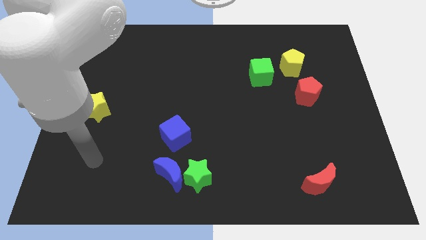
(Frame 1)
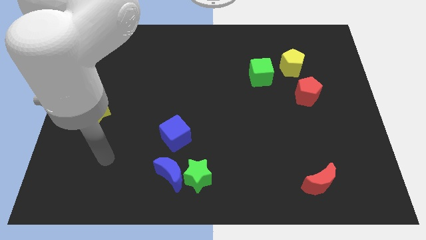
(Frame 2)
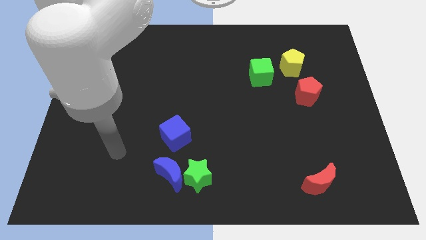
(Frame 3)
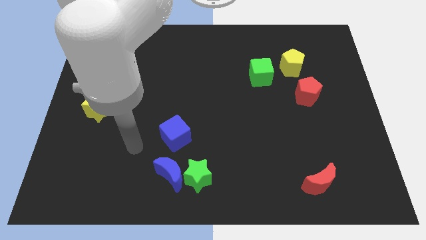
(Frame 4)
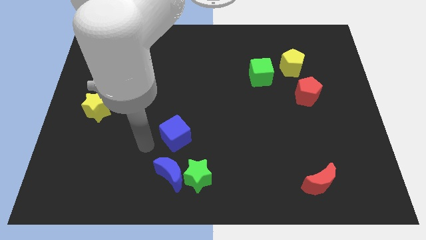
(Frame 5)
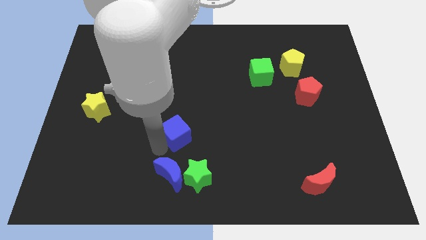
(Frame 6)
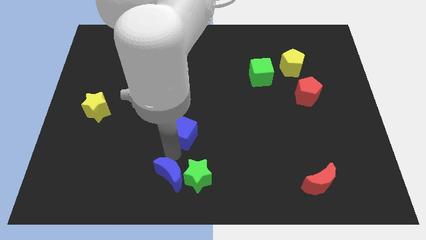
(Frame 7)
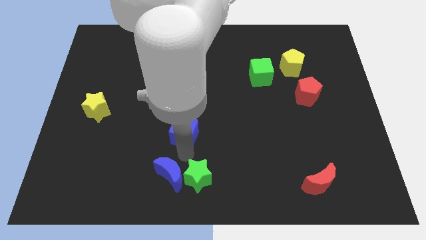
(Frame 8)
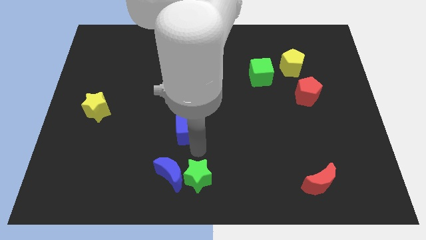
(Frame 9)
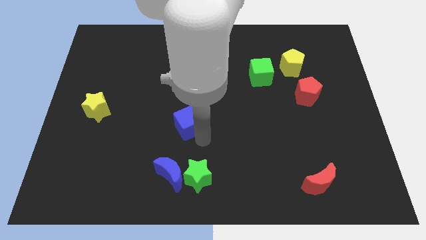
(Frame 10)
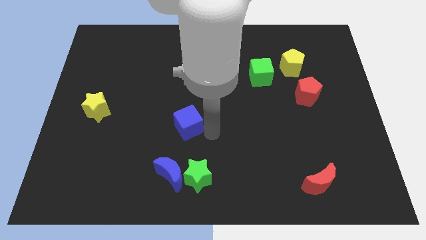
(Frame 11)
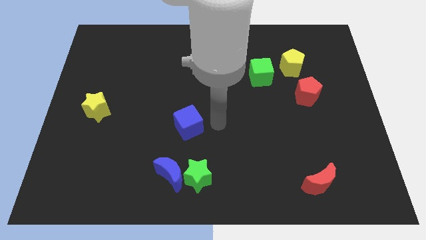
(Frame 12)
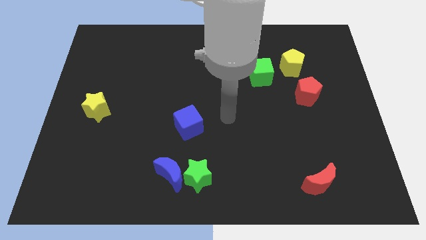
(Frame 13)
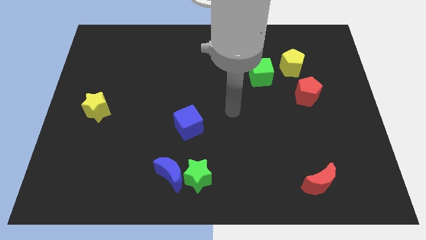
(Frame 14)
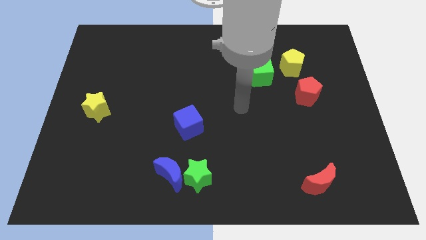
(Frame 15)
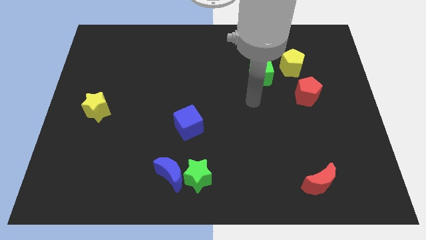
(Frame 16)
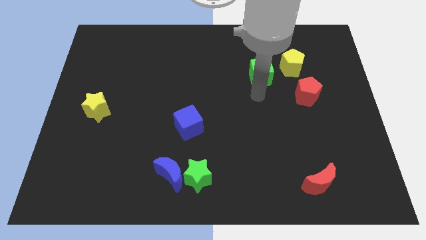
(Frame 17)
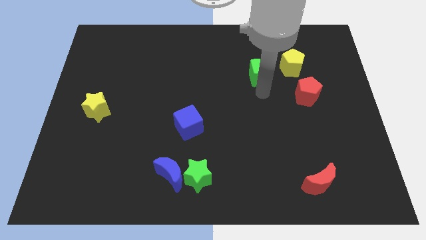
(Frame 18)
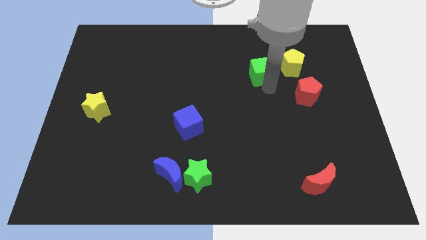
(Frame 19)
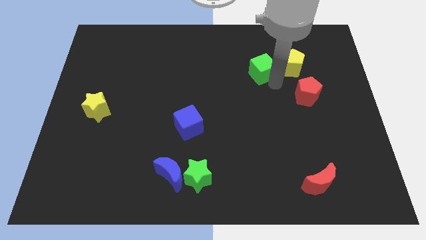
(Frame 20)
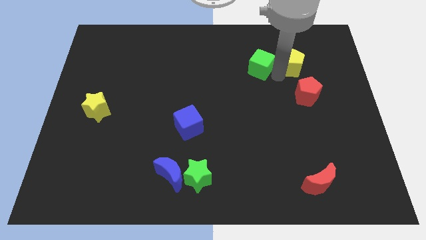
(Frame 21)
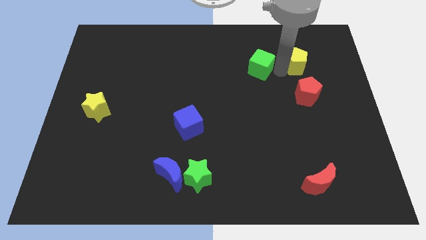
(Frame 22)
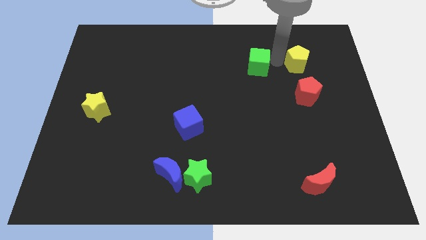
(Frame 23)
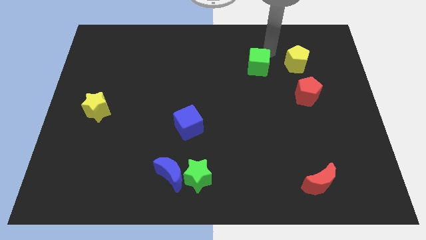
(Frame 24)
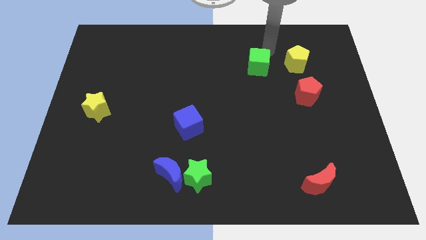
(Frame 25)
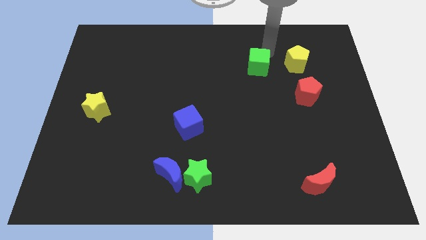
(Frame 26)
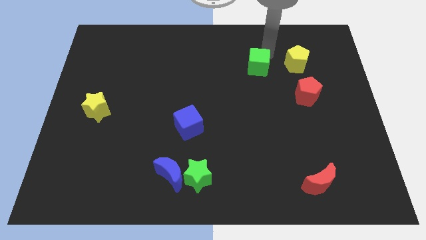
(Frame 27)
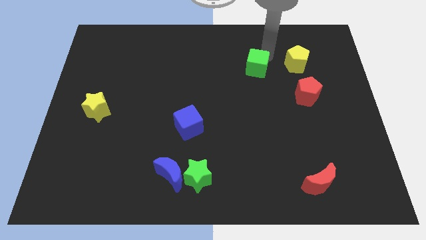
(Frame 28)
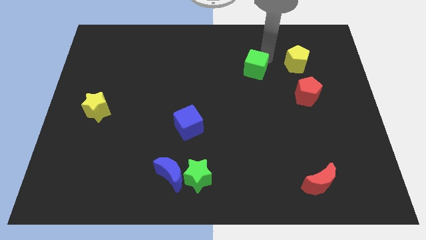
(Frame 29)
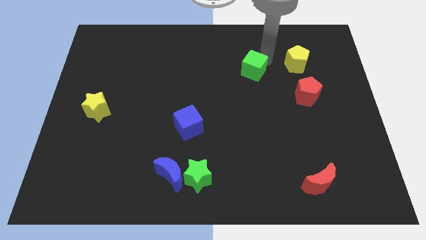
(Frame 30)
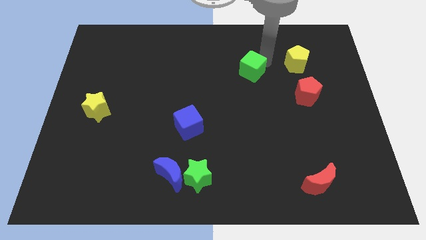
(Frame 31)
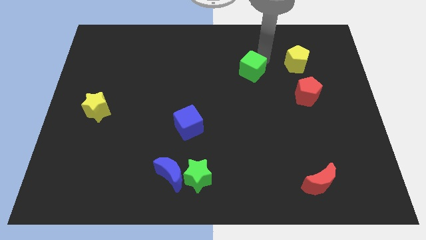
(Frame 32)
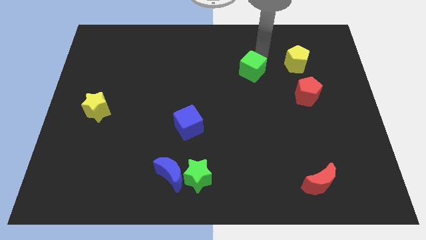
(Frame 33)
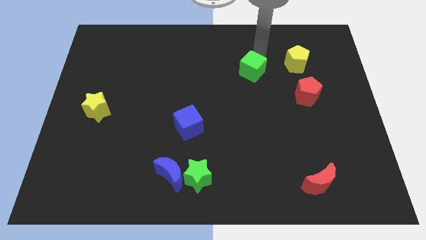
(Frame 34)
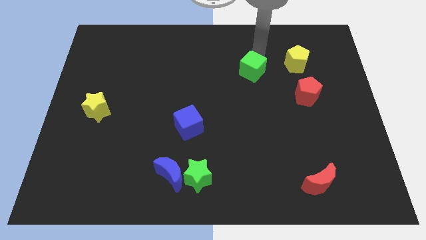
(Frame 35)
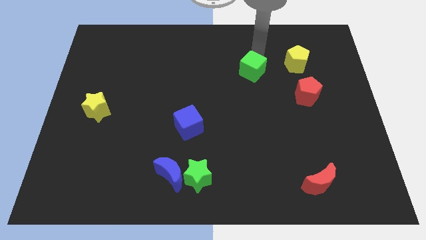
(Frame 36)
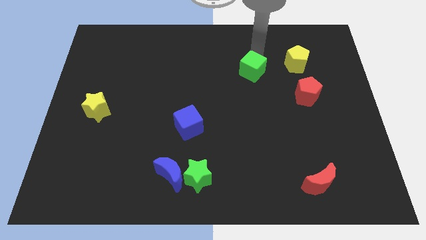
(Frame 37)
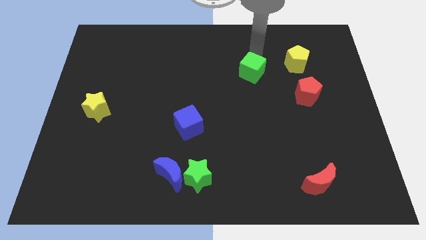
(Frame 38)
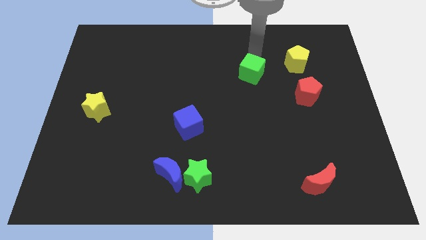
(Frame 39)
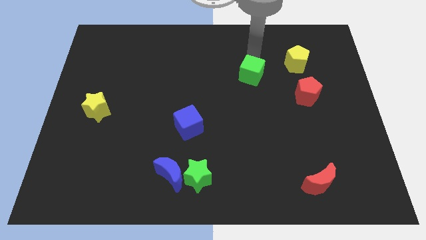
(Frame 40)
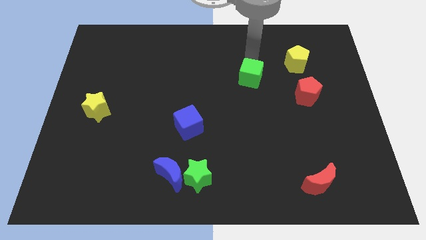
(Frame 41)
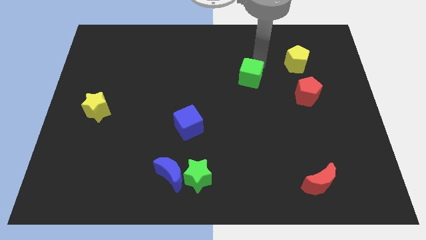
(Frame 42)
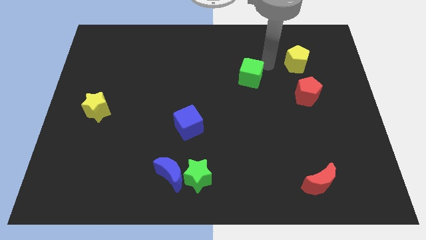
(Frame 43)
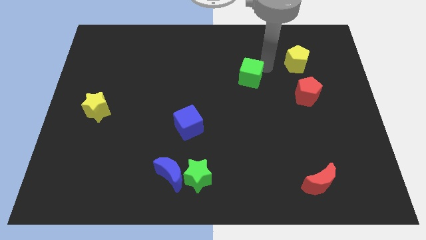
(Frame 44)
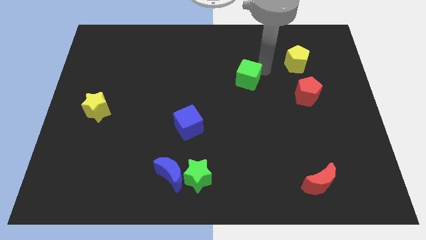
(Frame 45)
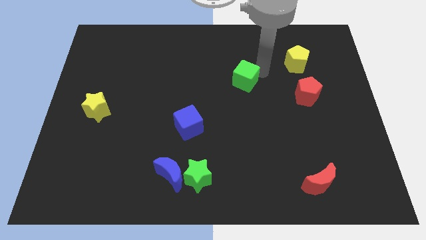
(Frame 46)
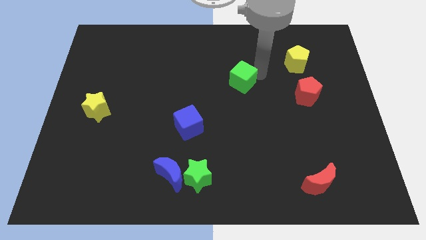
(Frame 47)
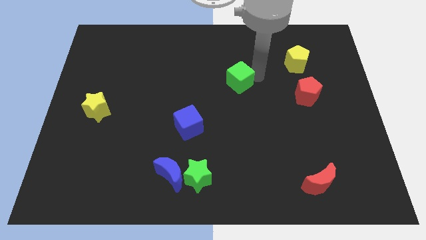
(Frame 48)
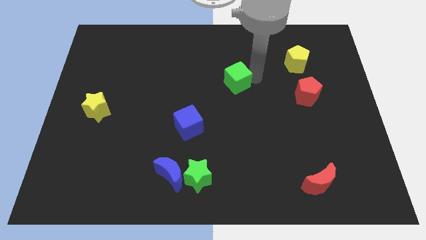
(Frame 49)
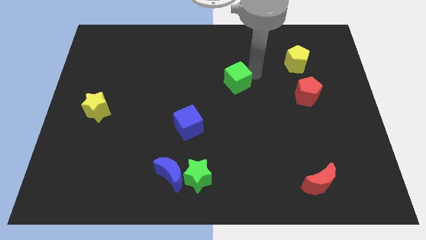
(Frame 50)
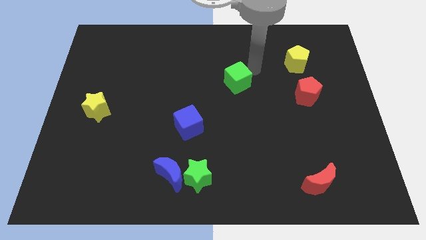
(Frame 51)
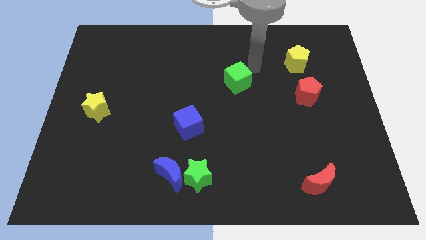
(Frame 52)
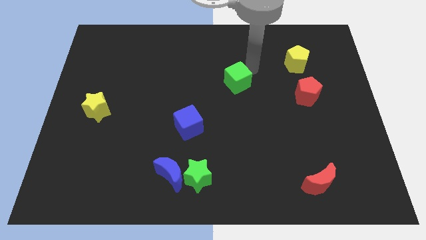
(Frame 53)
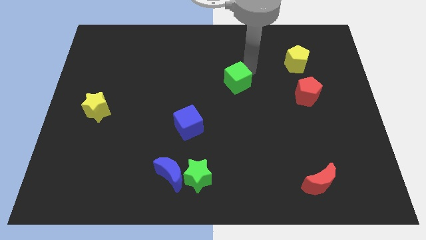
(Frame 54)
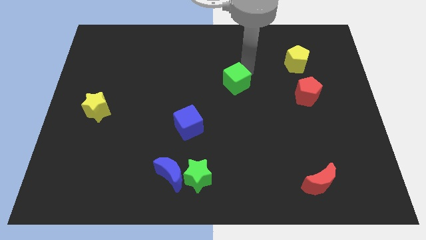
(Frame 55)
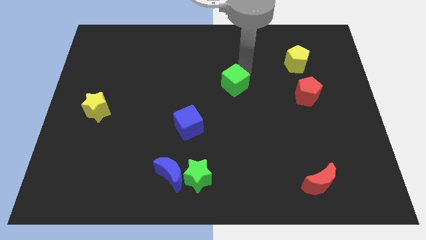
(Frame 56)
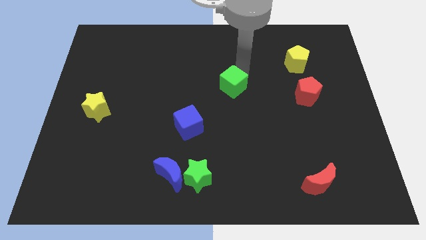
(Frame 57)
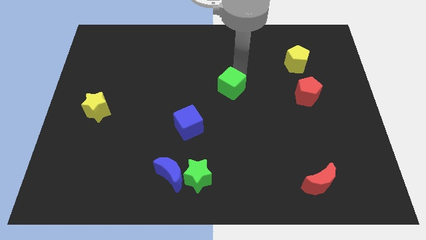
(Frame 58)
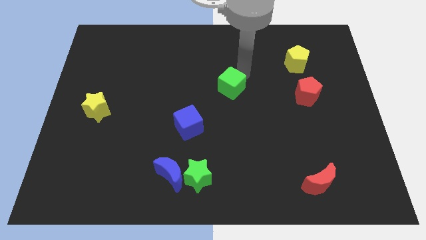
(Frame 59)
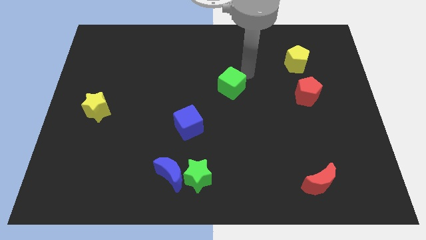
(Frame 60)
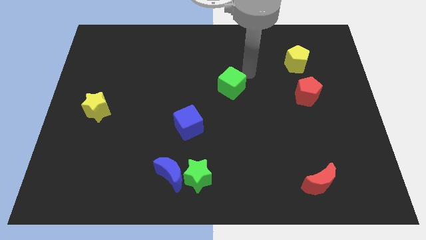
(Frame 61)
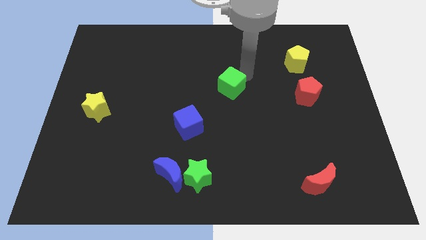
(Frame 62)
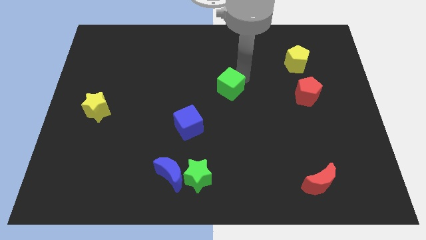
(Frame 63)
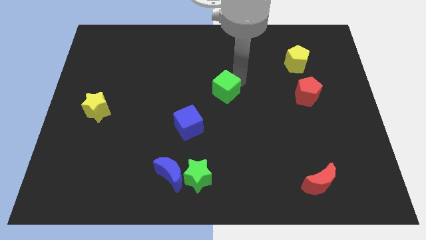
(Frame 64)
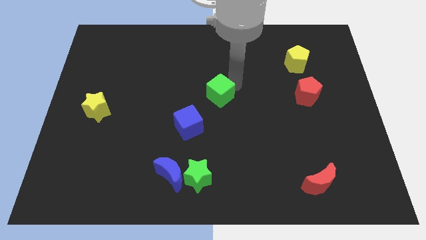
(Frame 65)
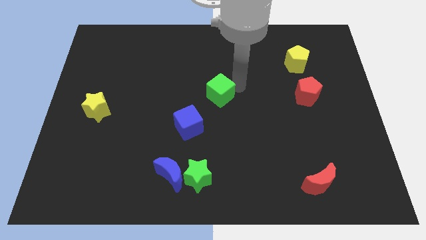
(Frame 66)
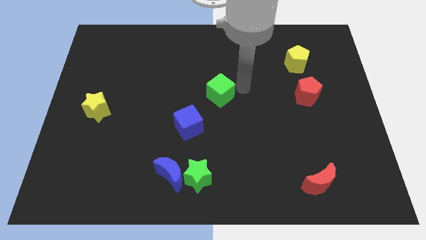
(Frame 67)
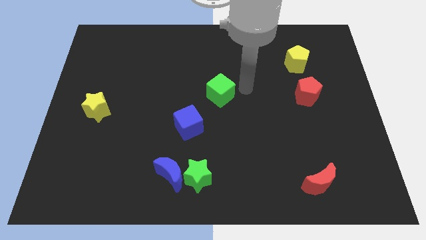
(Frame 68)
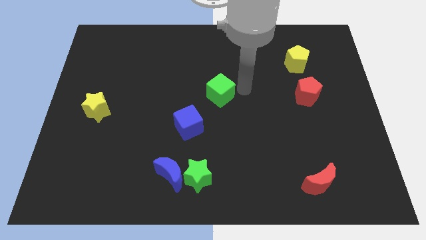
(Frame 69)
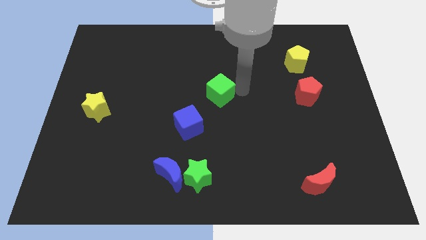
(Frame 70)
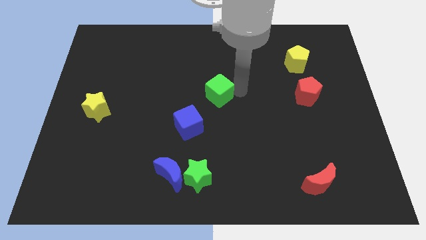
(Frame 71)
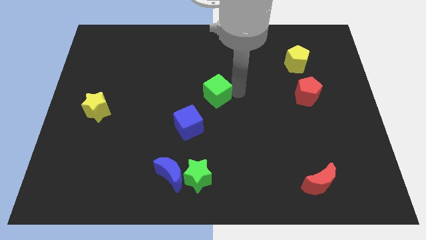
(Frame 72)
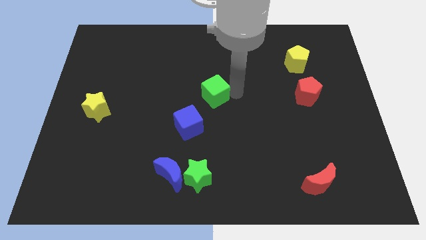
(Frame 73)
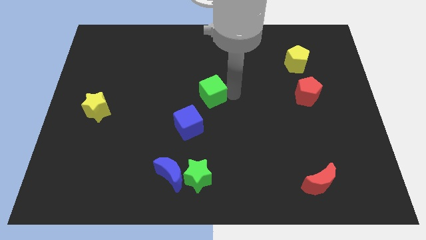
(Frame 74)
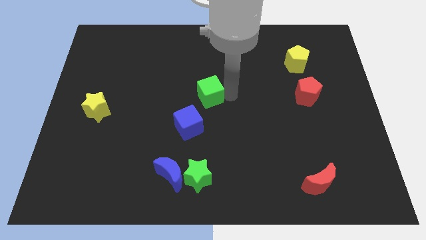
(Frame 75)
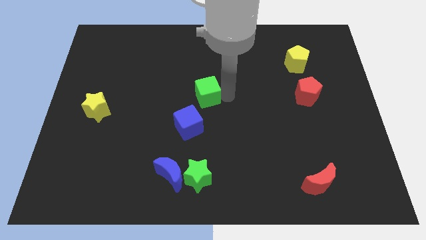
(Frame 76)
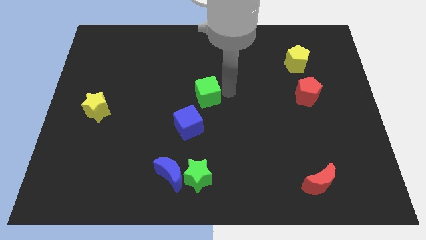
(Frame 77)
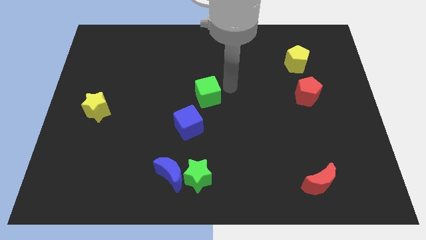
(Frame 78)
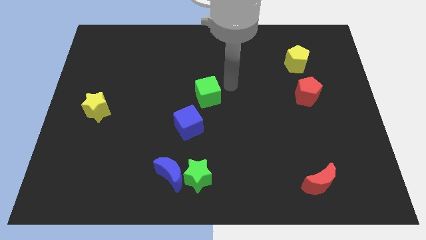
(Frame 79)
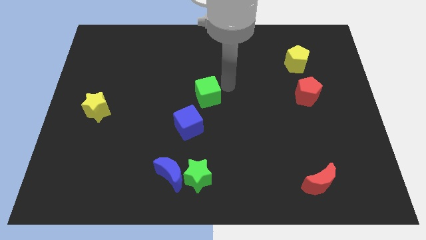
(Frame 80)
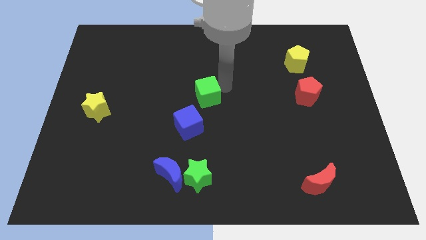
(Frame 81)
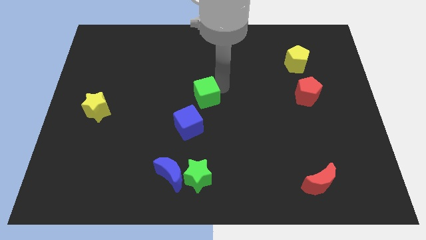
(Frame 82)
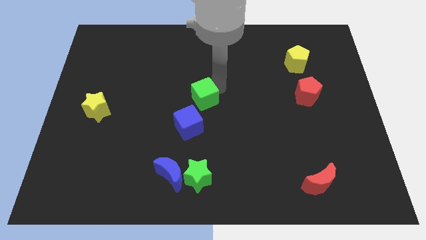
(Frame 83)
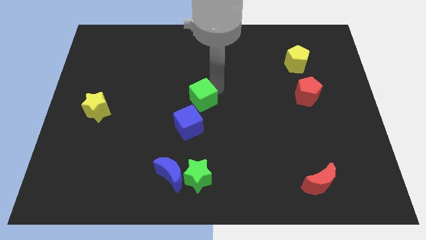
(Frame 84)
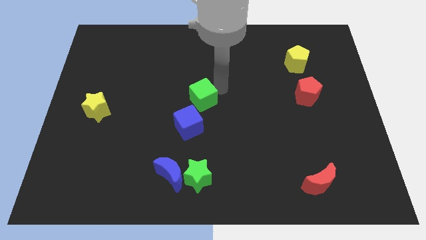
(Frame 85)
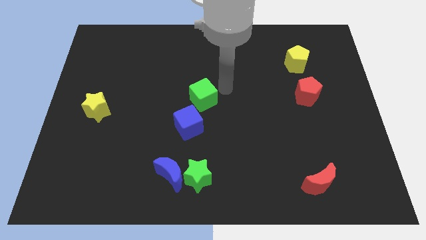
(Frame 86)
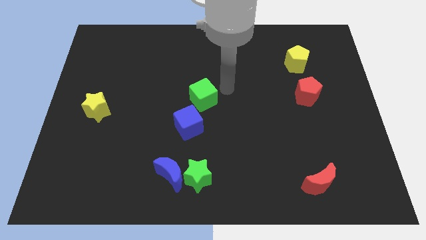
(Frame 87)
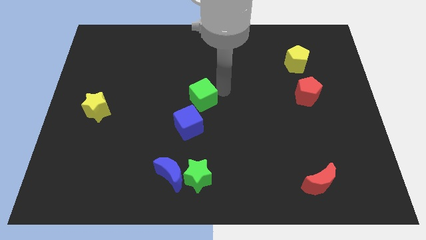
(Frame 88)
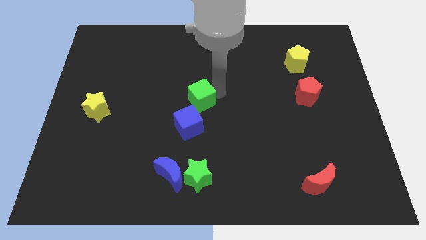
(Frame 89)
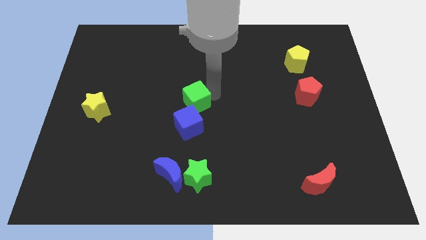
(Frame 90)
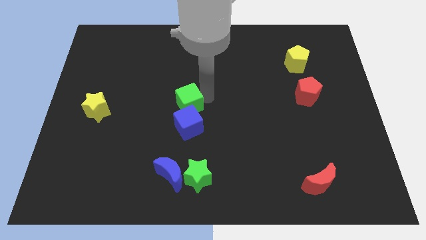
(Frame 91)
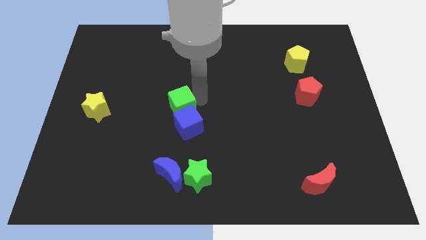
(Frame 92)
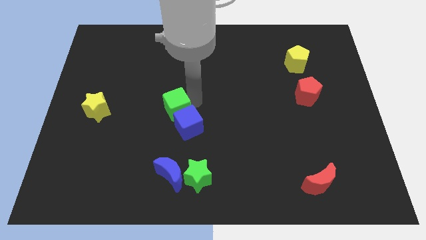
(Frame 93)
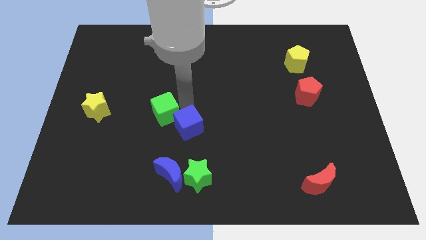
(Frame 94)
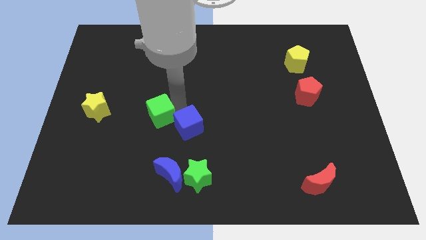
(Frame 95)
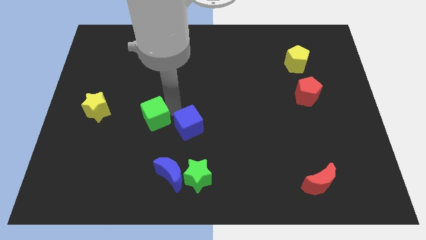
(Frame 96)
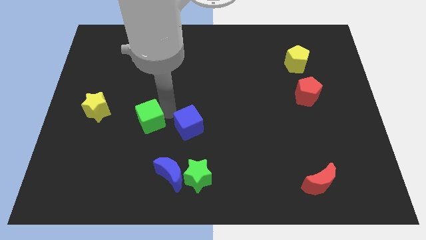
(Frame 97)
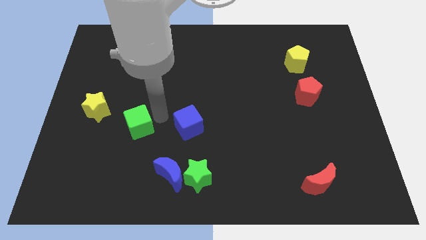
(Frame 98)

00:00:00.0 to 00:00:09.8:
put the green cube to the bottom right of the yellow star
